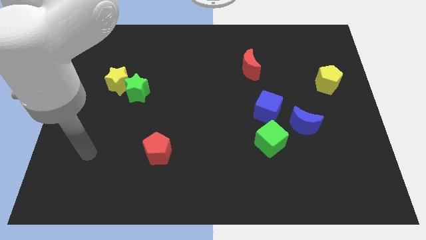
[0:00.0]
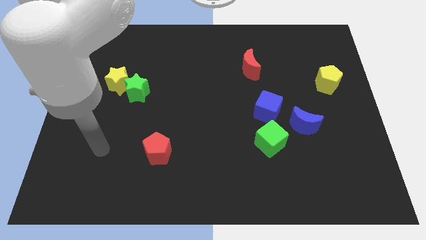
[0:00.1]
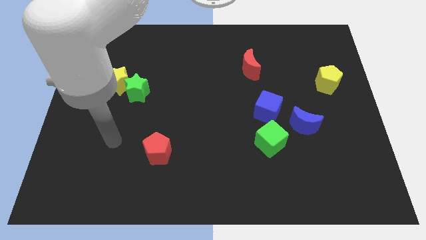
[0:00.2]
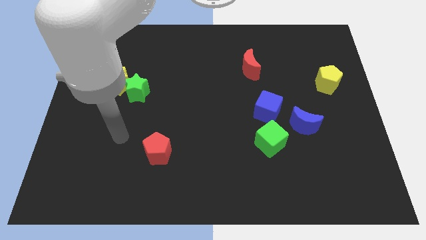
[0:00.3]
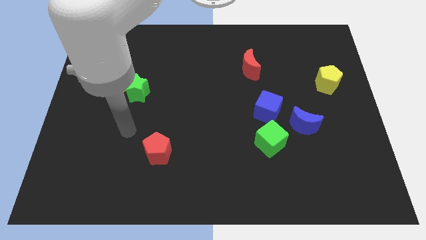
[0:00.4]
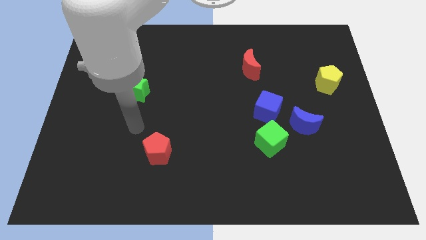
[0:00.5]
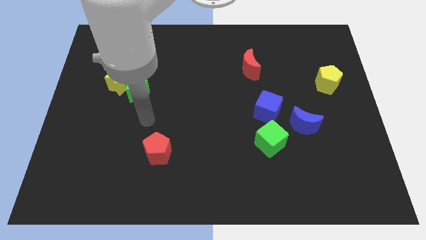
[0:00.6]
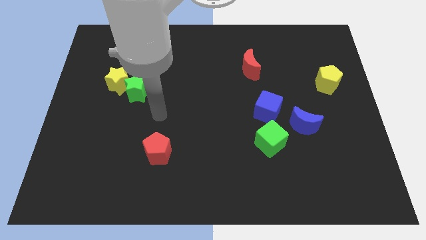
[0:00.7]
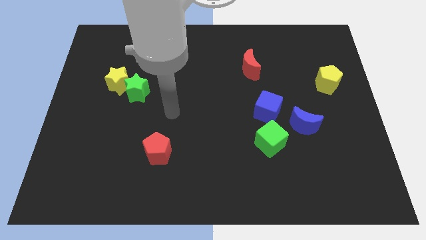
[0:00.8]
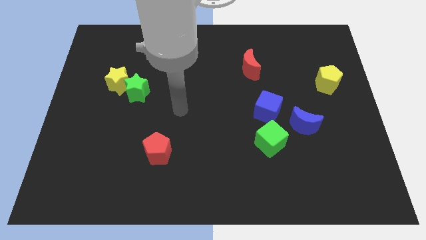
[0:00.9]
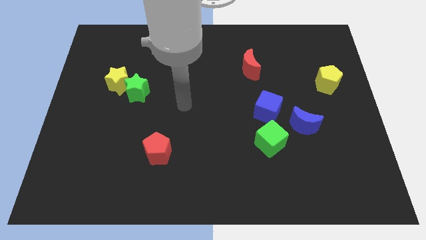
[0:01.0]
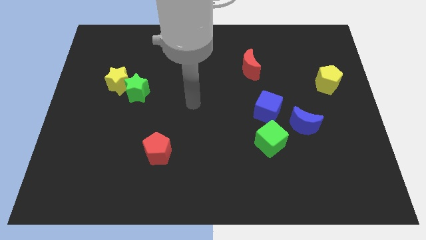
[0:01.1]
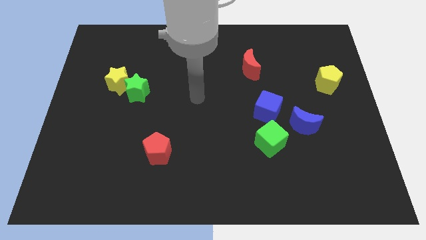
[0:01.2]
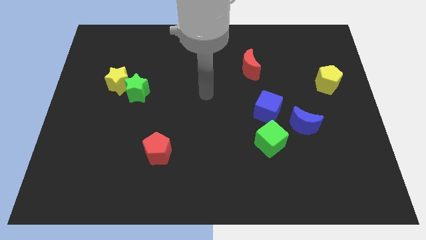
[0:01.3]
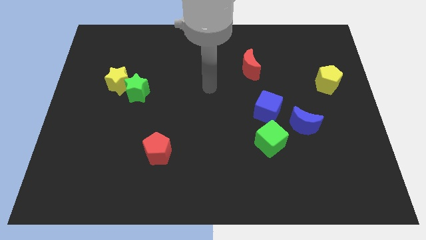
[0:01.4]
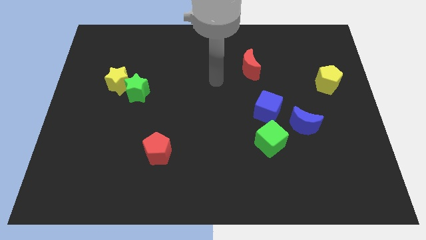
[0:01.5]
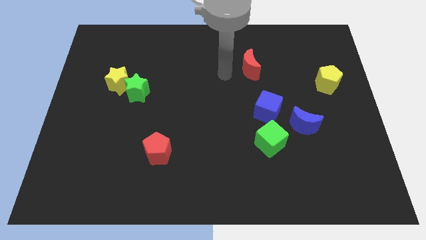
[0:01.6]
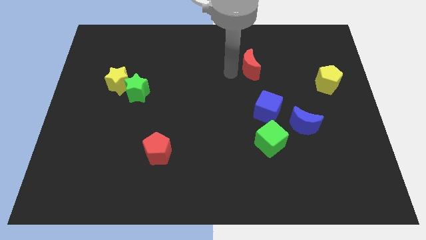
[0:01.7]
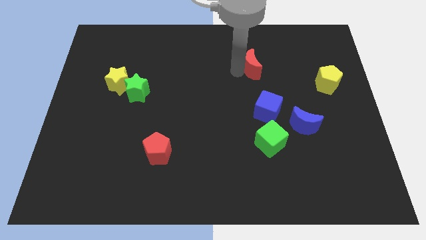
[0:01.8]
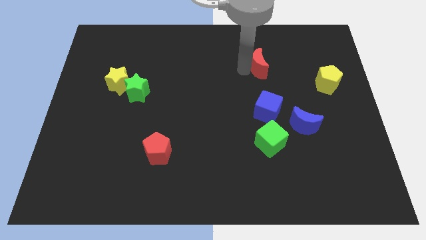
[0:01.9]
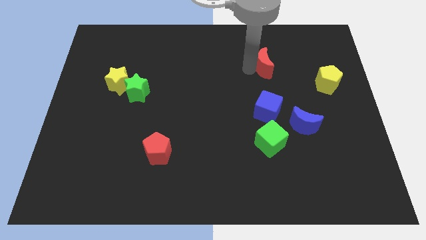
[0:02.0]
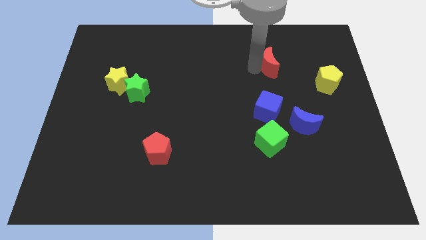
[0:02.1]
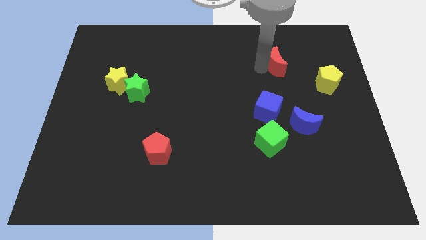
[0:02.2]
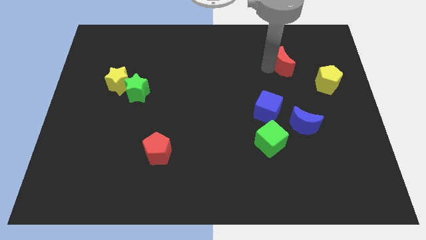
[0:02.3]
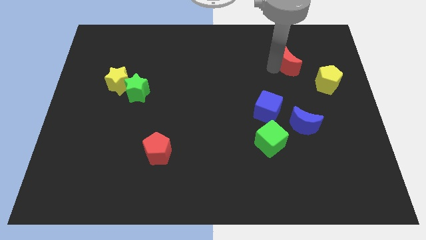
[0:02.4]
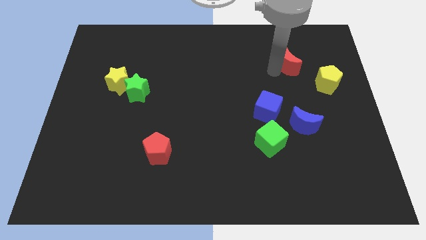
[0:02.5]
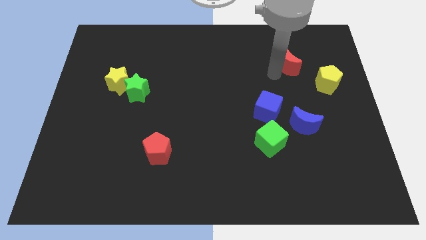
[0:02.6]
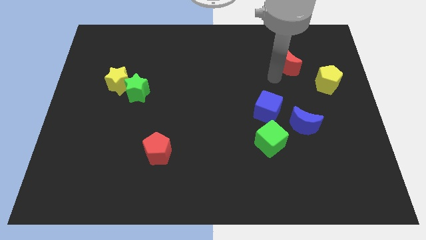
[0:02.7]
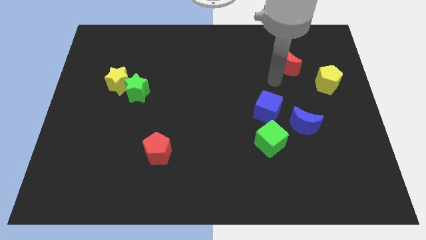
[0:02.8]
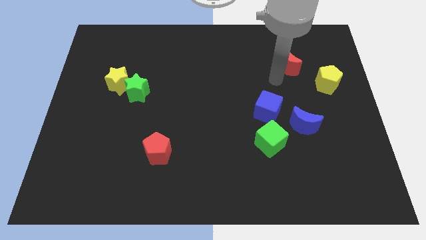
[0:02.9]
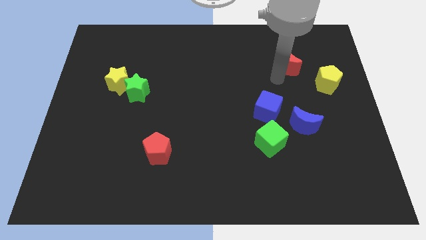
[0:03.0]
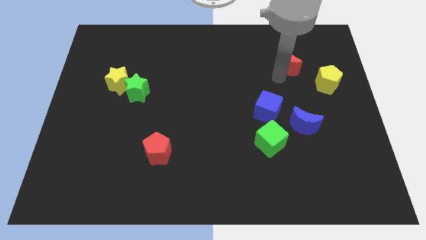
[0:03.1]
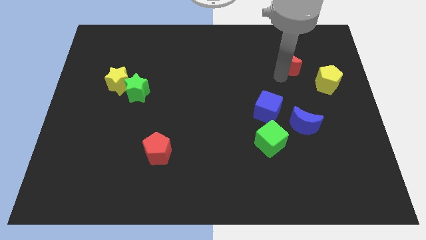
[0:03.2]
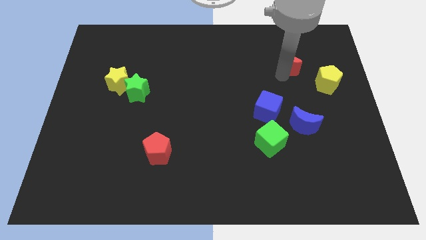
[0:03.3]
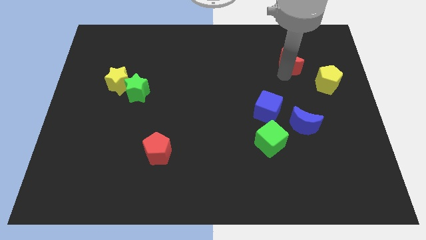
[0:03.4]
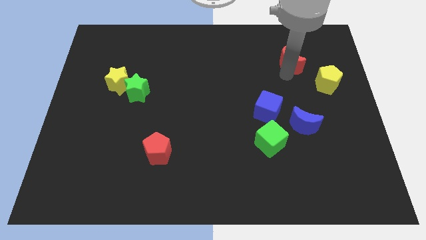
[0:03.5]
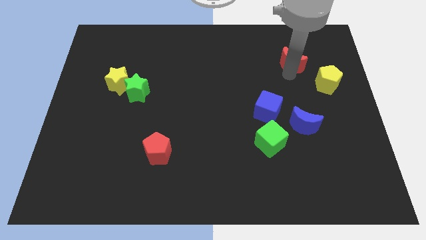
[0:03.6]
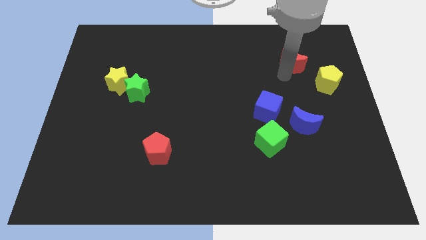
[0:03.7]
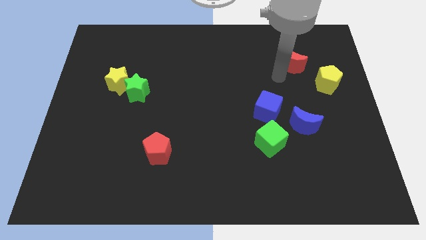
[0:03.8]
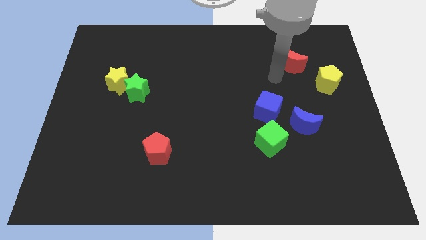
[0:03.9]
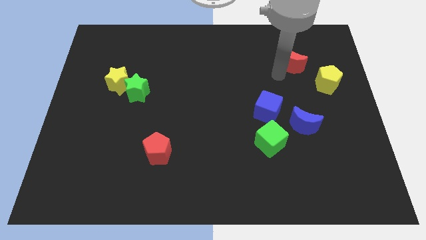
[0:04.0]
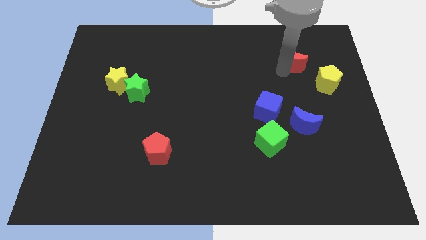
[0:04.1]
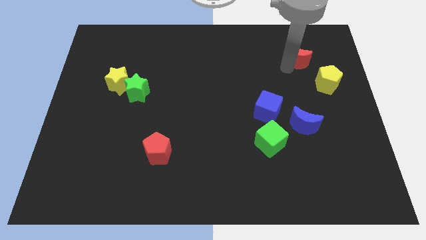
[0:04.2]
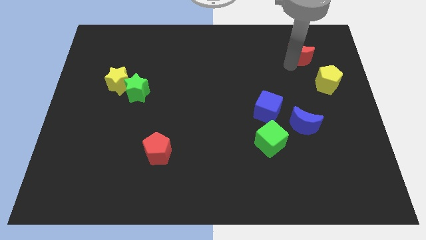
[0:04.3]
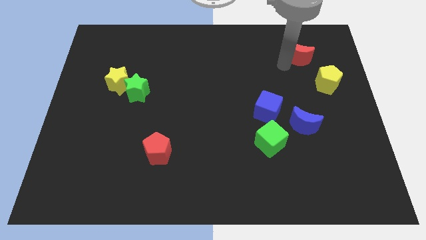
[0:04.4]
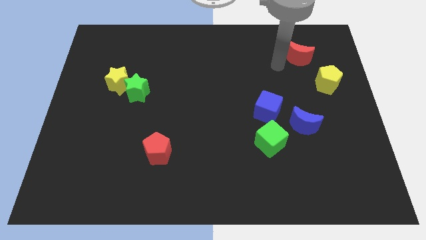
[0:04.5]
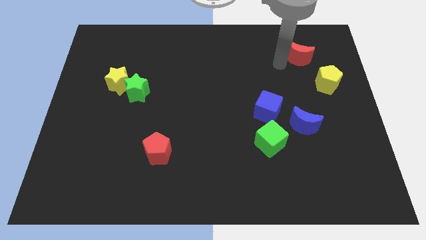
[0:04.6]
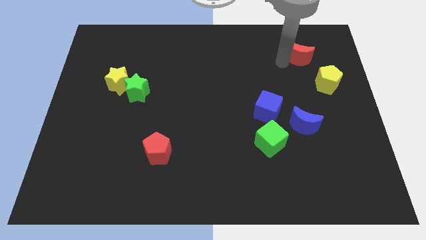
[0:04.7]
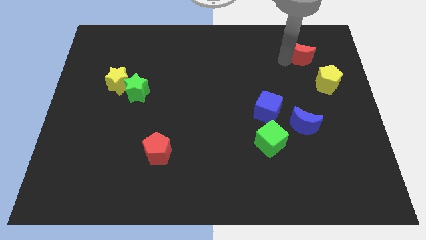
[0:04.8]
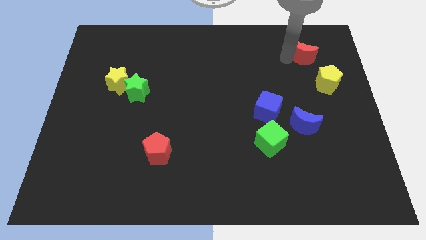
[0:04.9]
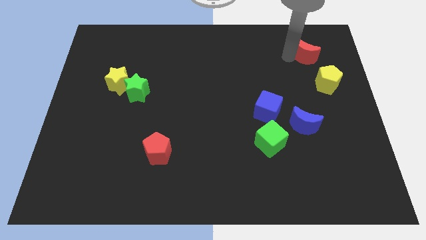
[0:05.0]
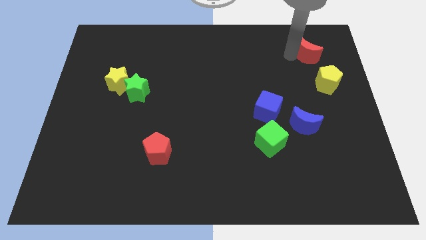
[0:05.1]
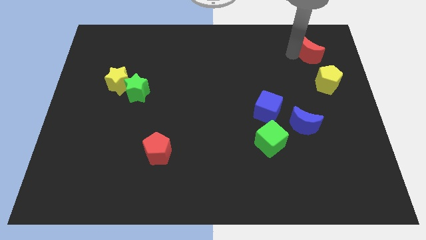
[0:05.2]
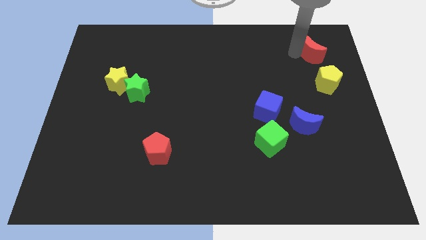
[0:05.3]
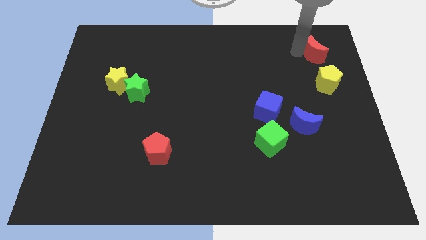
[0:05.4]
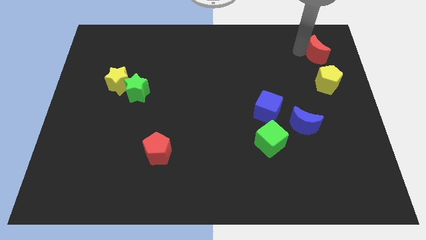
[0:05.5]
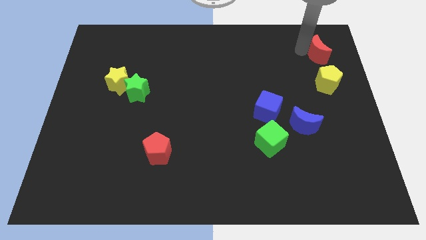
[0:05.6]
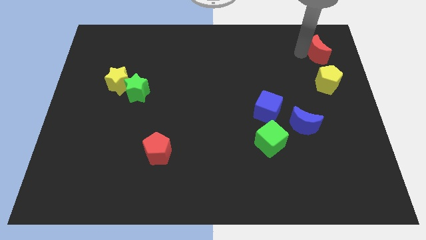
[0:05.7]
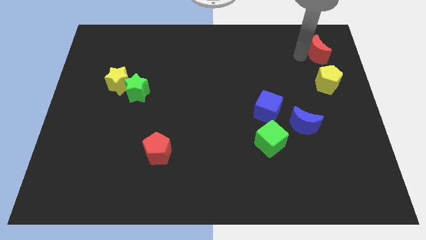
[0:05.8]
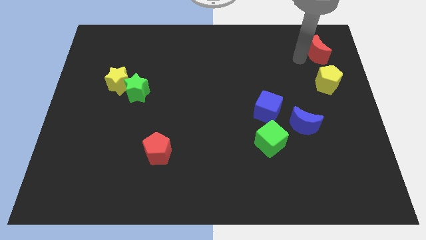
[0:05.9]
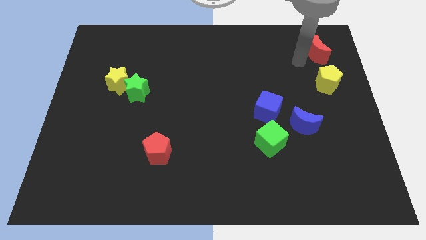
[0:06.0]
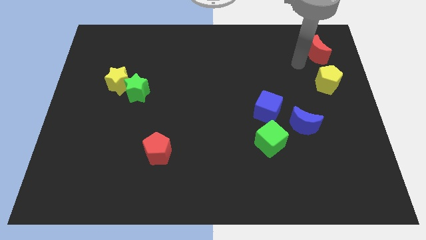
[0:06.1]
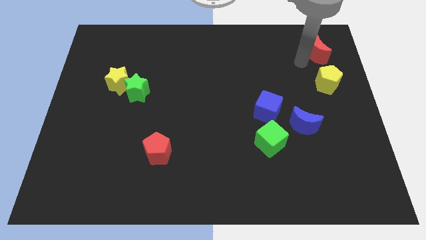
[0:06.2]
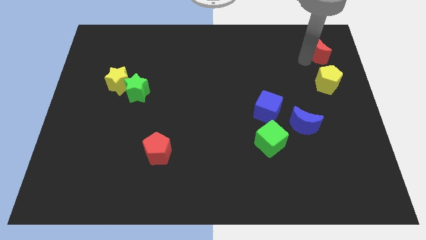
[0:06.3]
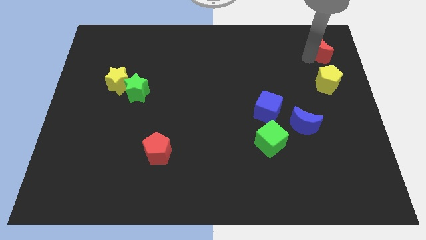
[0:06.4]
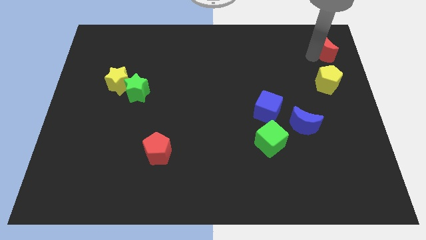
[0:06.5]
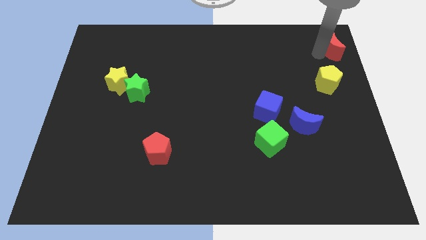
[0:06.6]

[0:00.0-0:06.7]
put the red moon to the top right
